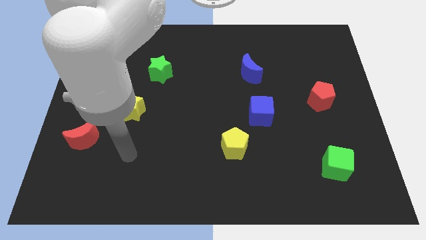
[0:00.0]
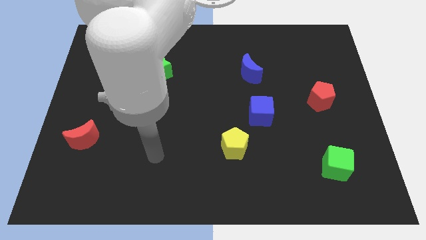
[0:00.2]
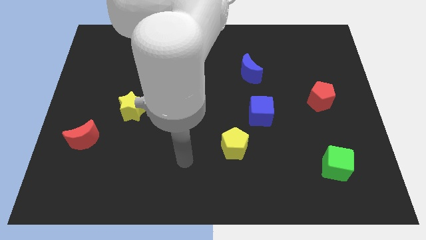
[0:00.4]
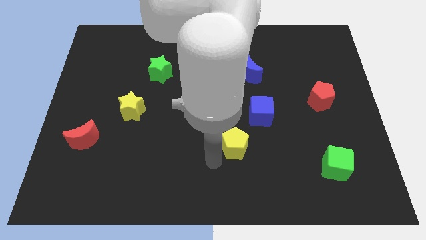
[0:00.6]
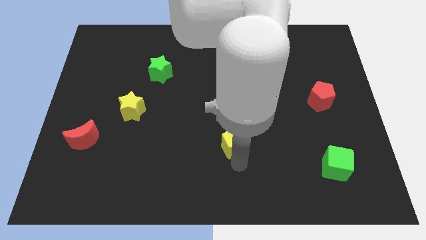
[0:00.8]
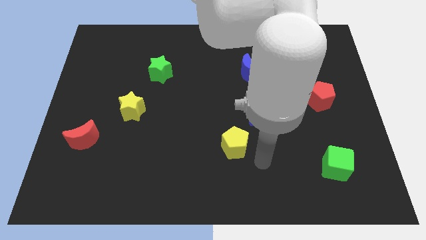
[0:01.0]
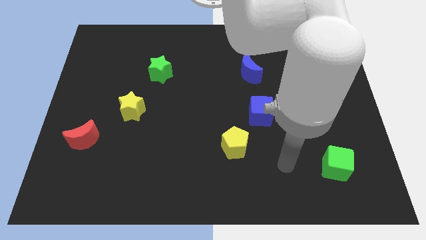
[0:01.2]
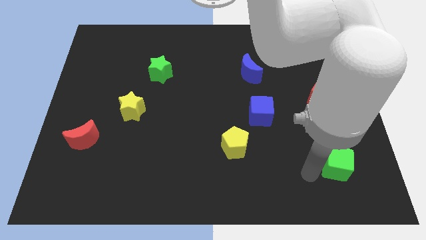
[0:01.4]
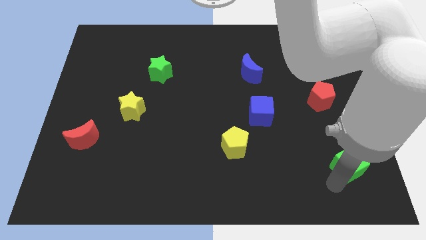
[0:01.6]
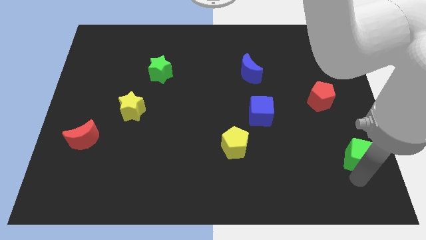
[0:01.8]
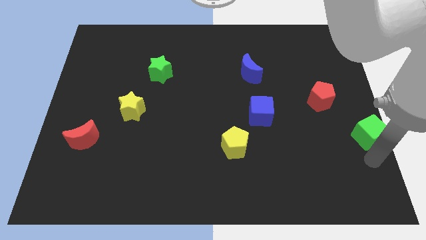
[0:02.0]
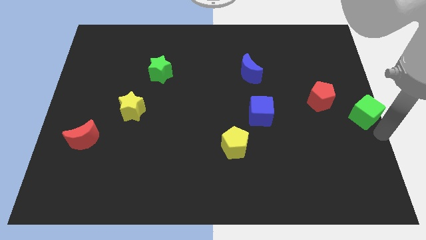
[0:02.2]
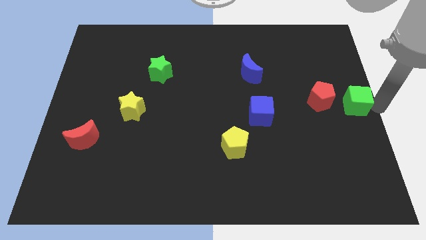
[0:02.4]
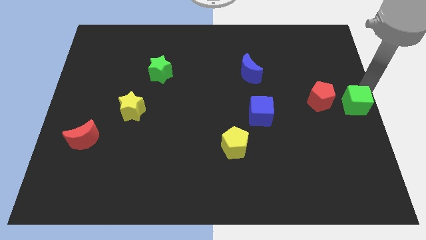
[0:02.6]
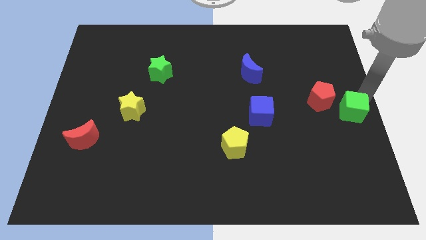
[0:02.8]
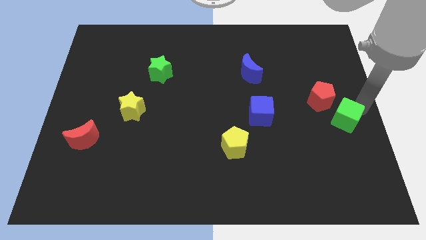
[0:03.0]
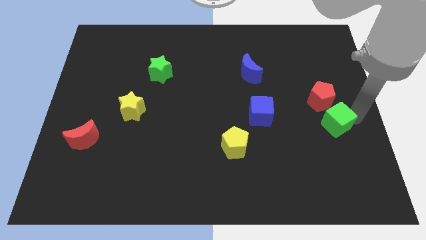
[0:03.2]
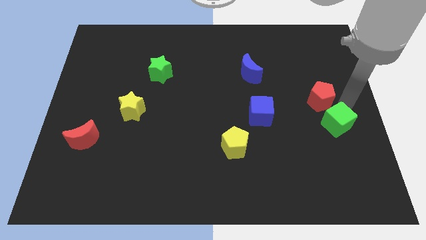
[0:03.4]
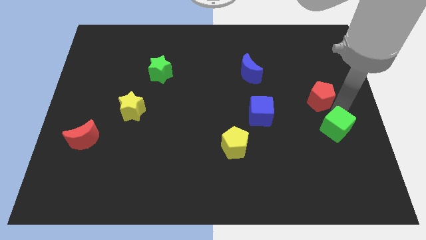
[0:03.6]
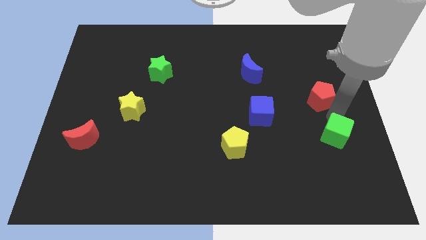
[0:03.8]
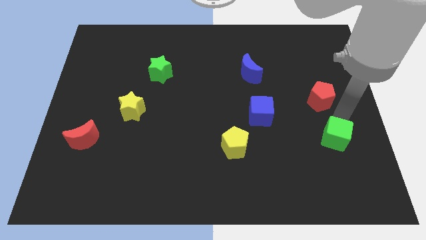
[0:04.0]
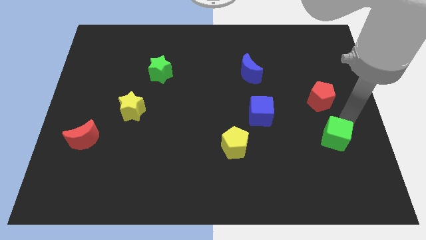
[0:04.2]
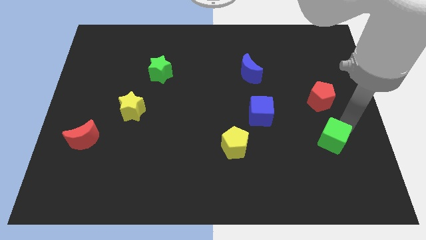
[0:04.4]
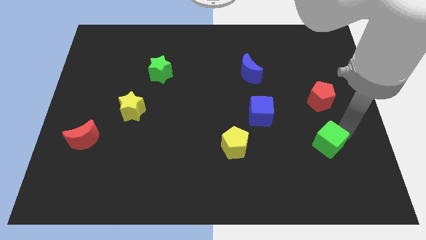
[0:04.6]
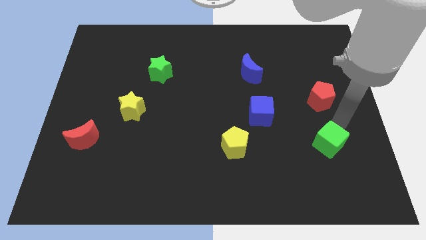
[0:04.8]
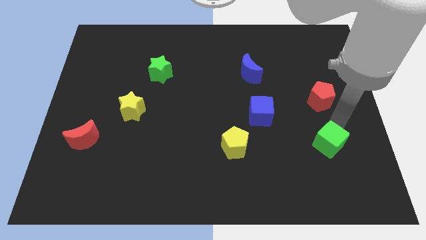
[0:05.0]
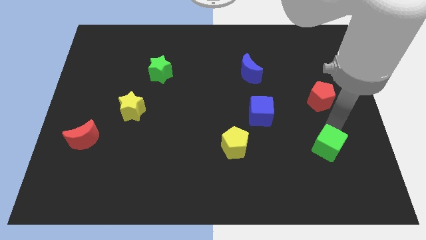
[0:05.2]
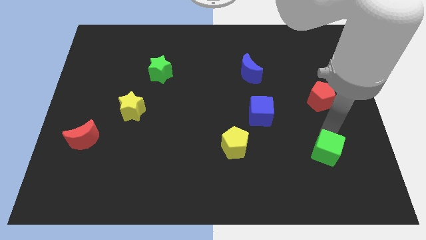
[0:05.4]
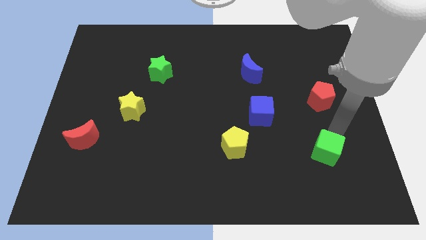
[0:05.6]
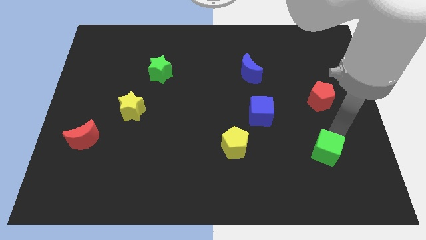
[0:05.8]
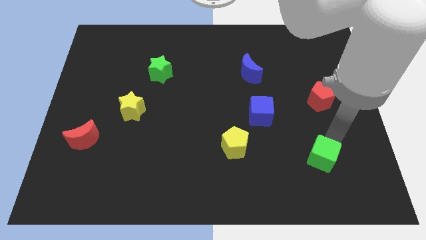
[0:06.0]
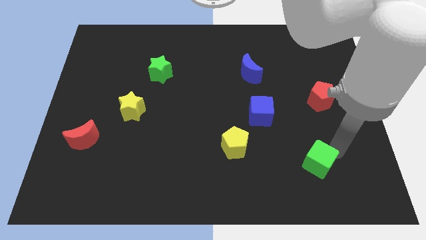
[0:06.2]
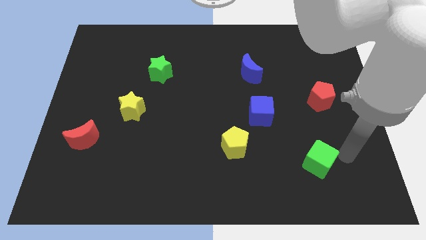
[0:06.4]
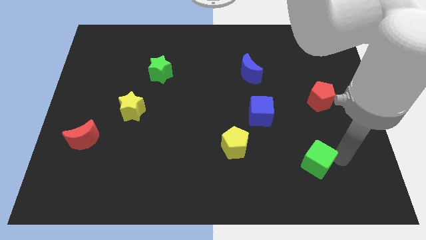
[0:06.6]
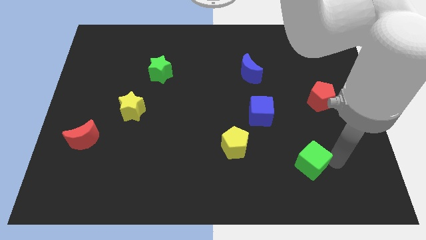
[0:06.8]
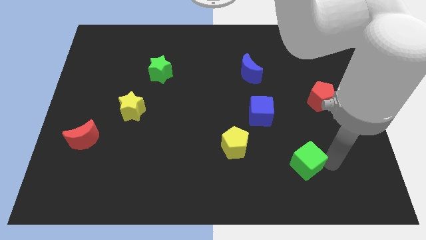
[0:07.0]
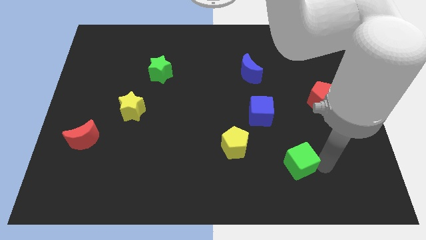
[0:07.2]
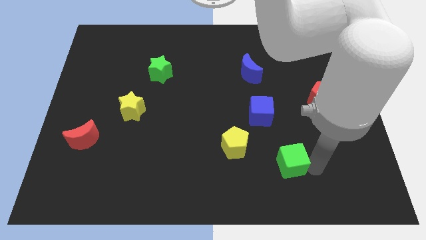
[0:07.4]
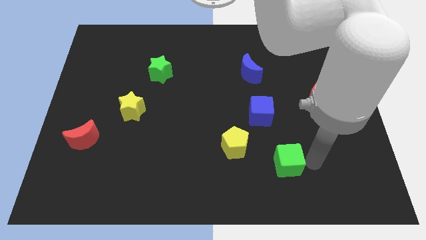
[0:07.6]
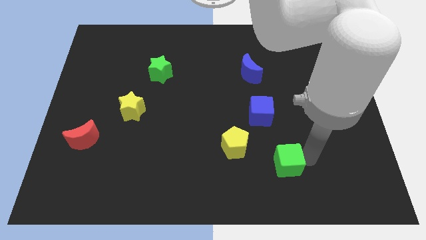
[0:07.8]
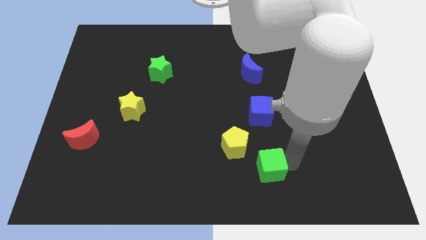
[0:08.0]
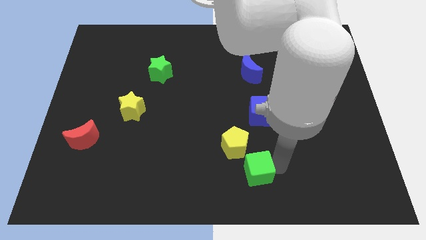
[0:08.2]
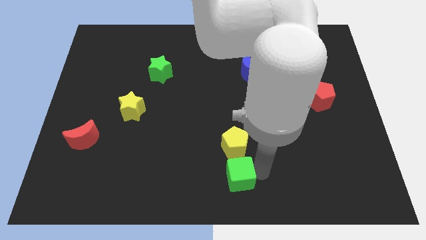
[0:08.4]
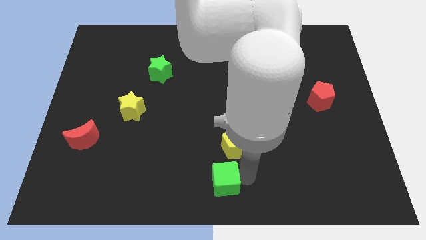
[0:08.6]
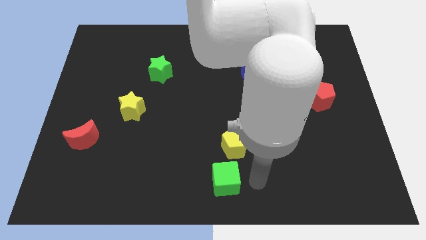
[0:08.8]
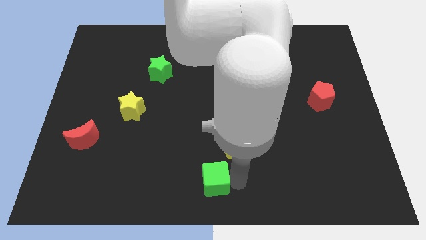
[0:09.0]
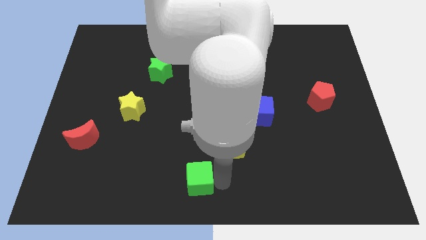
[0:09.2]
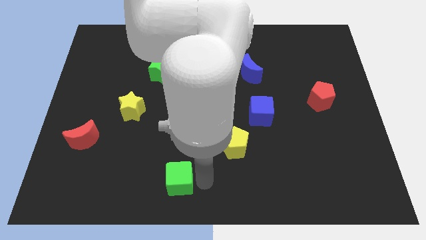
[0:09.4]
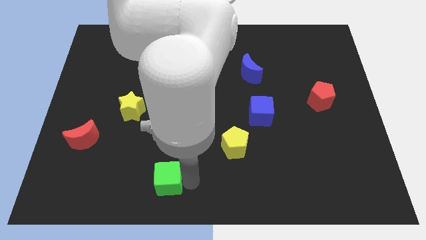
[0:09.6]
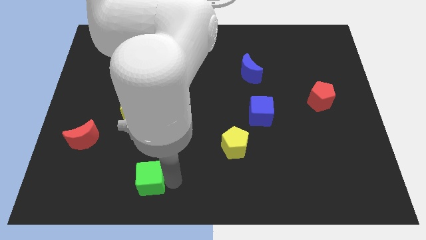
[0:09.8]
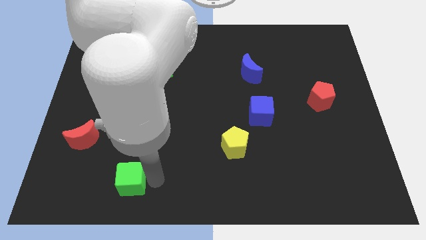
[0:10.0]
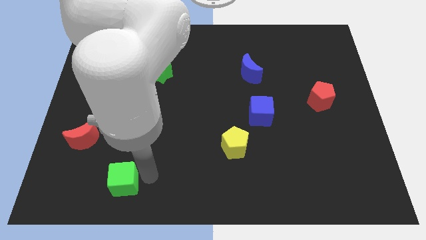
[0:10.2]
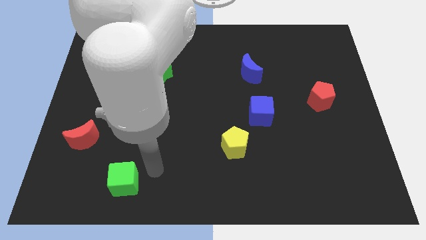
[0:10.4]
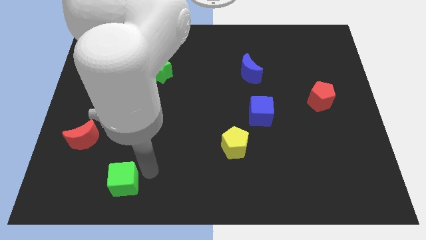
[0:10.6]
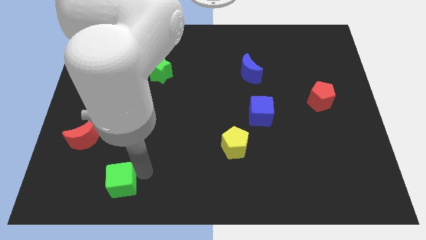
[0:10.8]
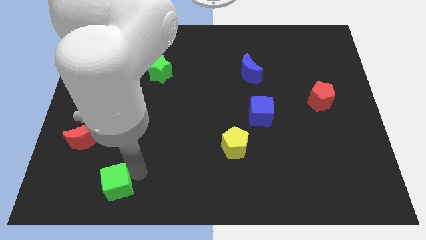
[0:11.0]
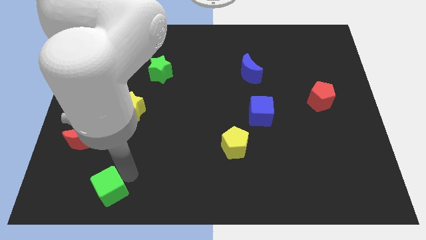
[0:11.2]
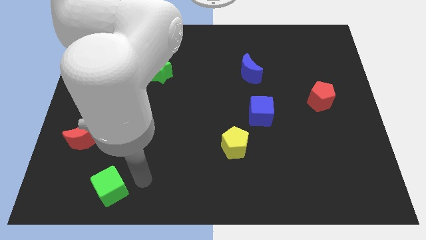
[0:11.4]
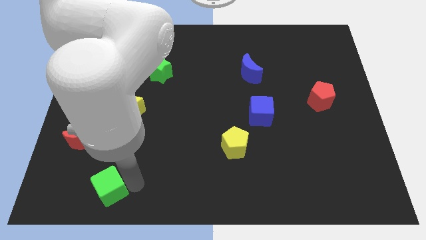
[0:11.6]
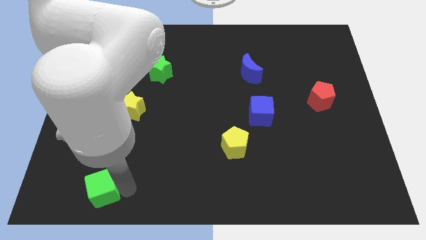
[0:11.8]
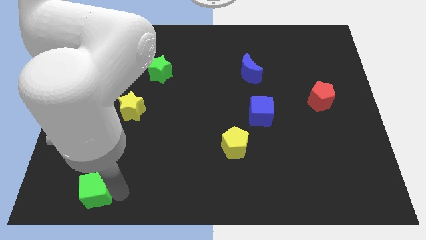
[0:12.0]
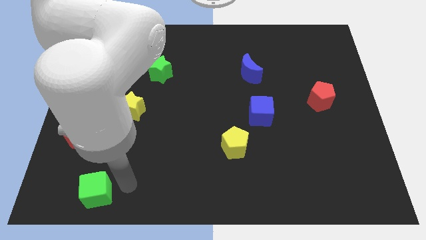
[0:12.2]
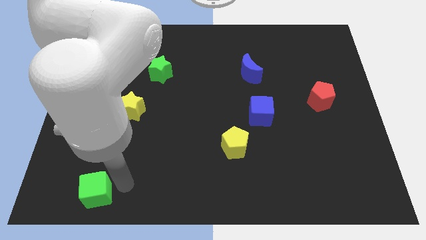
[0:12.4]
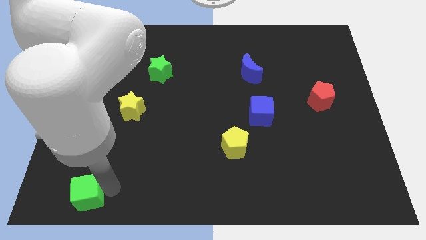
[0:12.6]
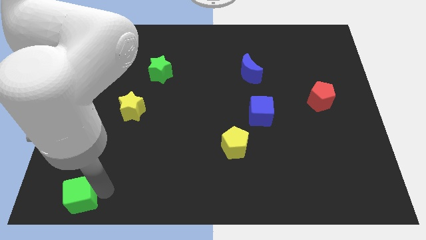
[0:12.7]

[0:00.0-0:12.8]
put the green cube to the bottom left

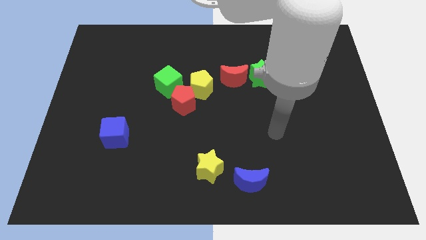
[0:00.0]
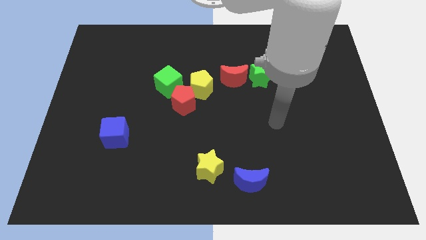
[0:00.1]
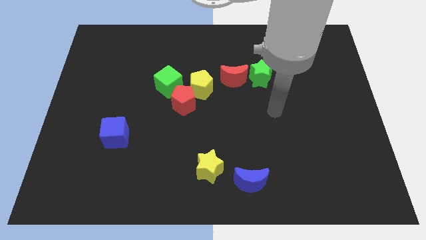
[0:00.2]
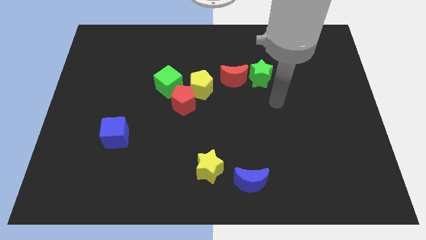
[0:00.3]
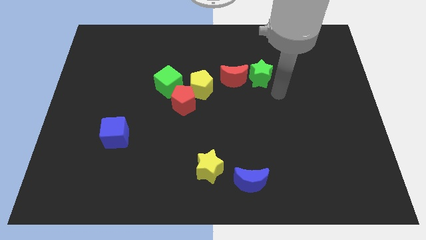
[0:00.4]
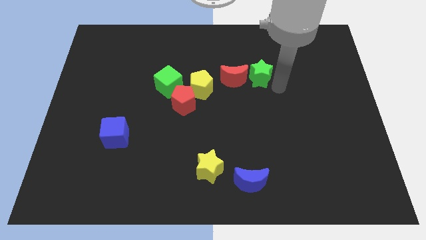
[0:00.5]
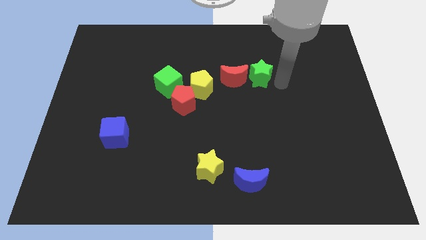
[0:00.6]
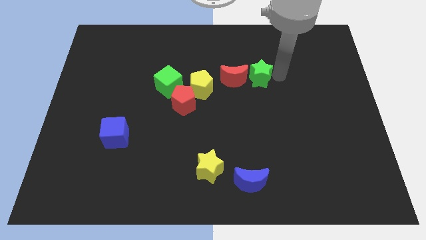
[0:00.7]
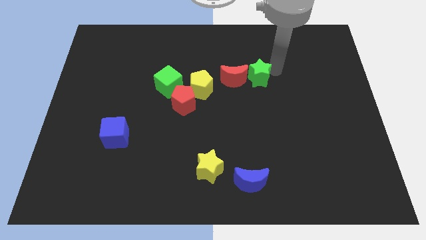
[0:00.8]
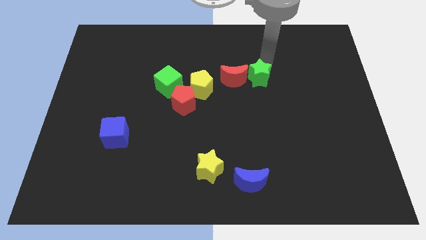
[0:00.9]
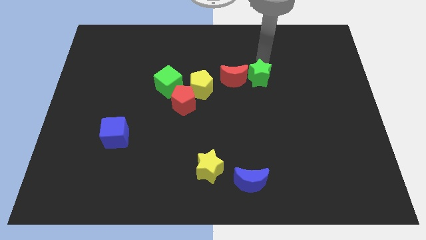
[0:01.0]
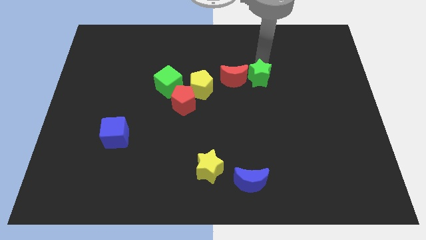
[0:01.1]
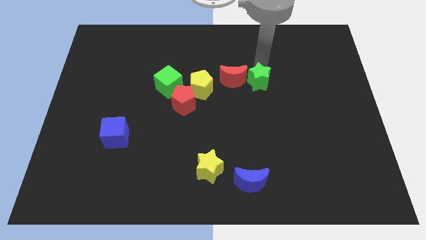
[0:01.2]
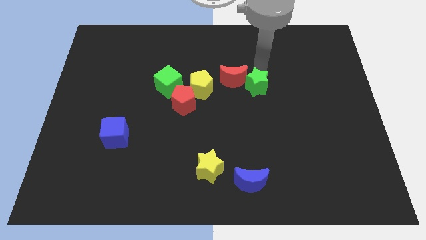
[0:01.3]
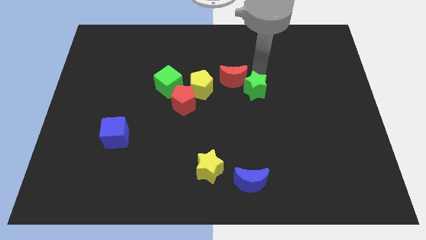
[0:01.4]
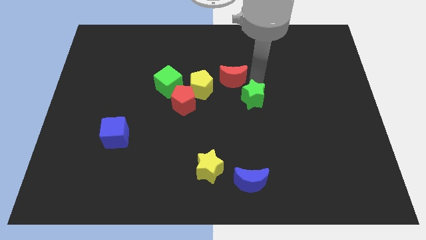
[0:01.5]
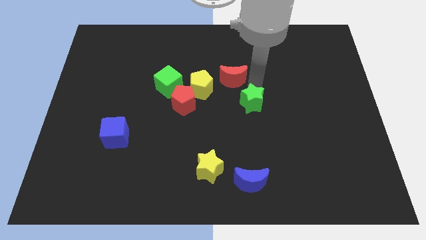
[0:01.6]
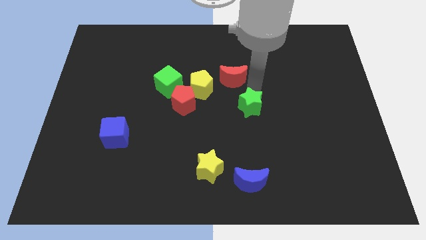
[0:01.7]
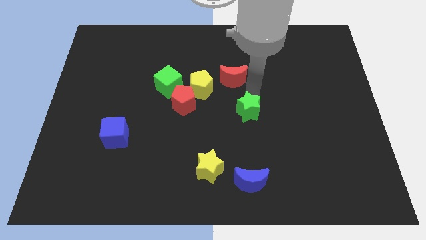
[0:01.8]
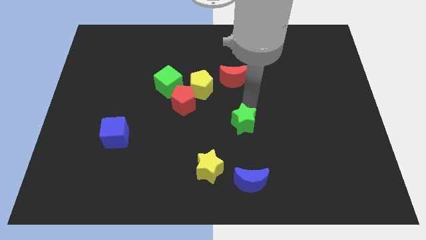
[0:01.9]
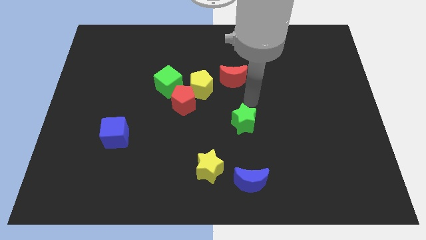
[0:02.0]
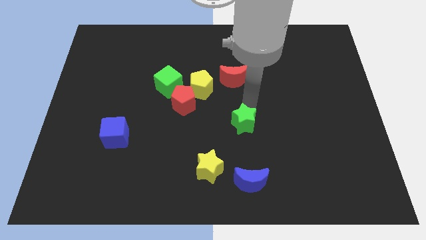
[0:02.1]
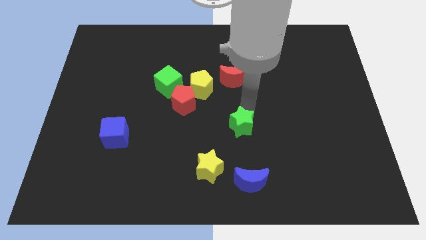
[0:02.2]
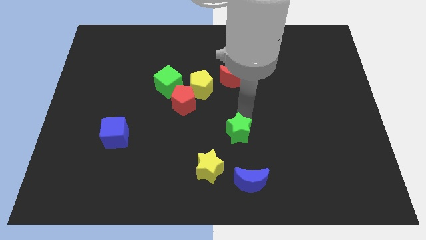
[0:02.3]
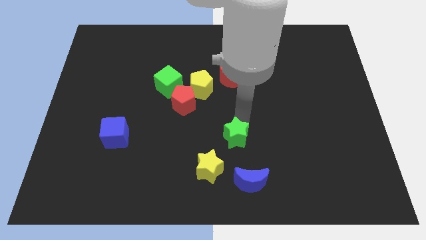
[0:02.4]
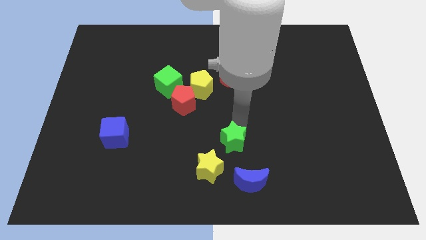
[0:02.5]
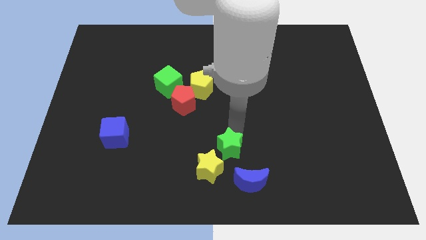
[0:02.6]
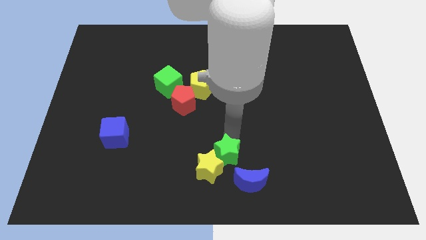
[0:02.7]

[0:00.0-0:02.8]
slide the green star to the bottom
